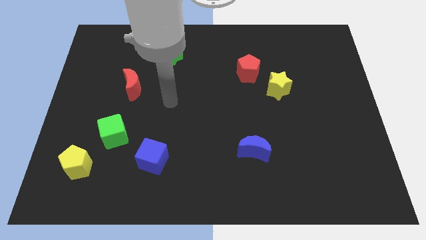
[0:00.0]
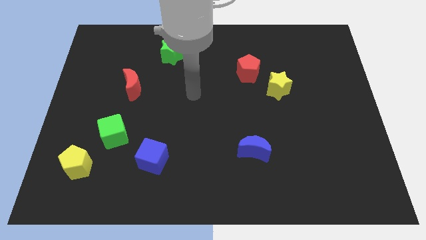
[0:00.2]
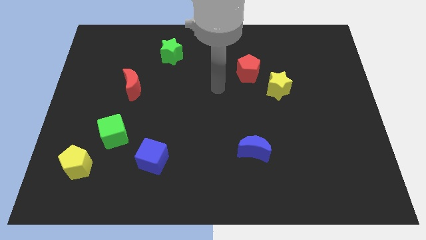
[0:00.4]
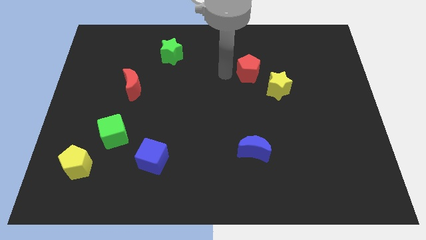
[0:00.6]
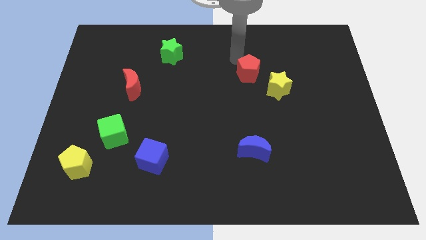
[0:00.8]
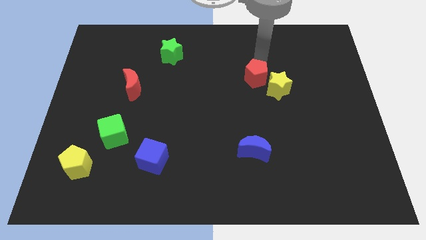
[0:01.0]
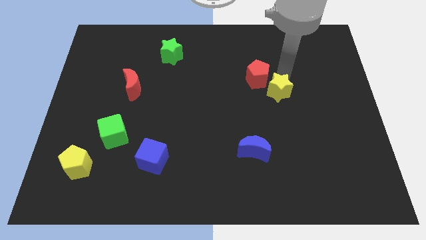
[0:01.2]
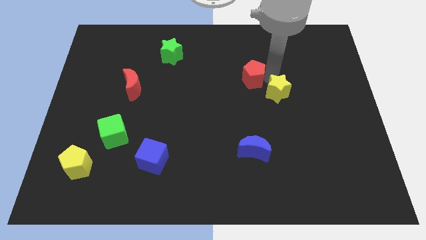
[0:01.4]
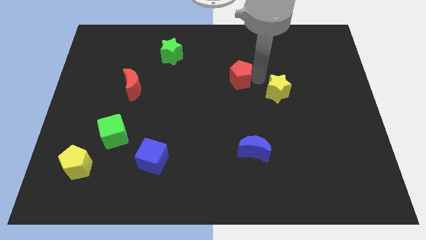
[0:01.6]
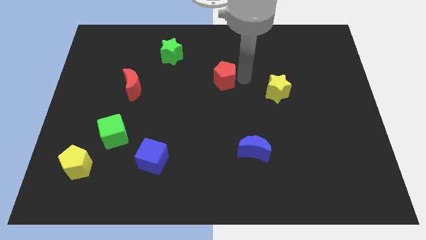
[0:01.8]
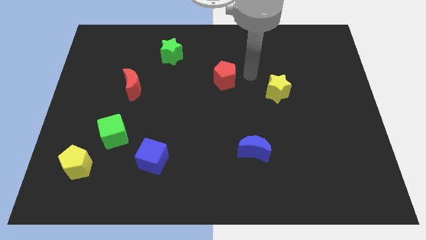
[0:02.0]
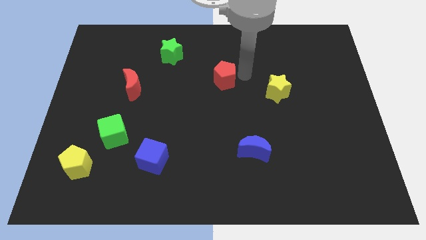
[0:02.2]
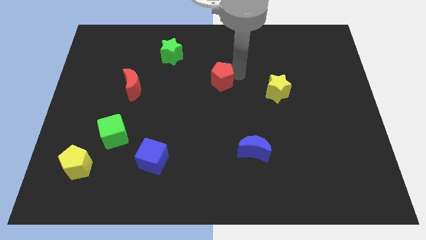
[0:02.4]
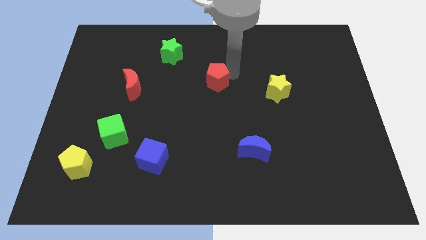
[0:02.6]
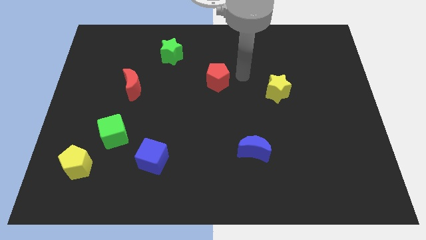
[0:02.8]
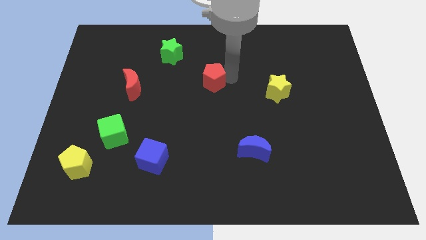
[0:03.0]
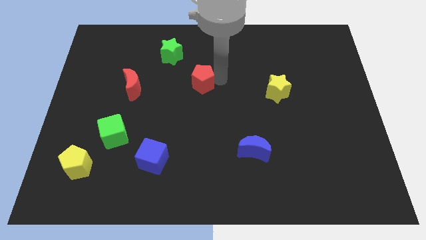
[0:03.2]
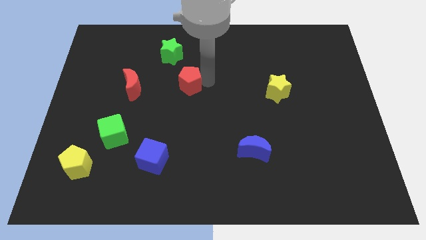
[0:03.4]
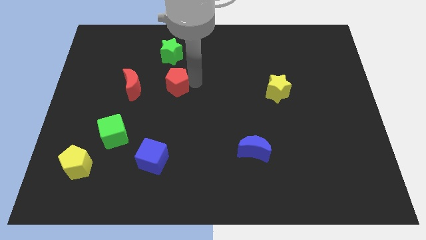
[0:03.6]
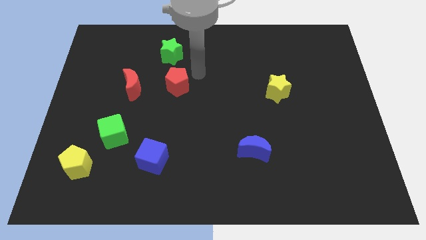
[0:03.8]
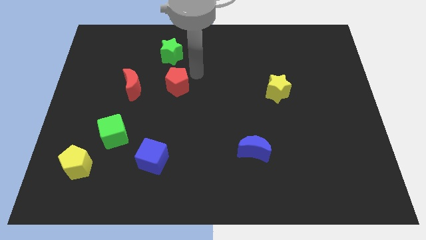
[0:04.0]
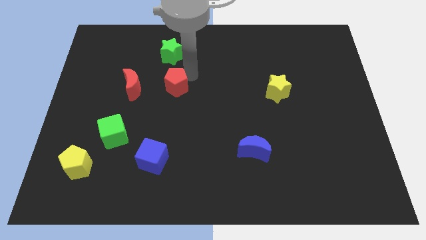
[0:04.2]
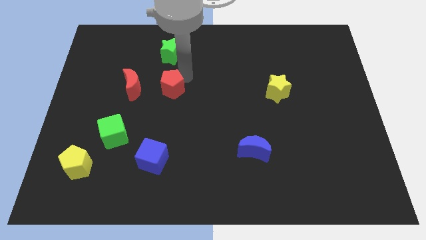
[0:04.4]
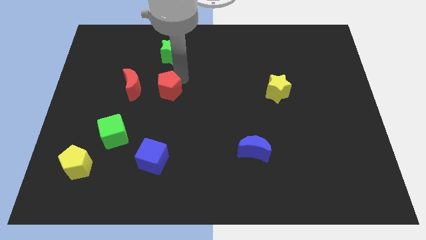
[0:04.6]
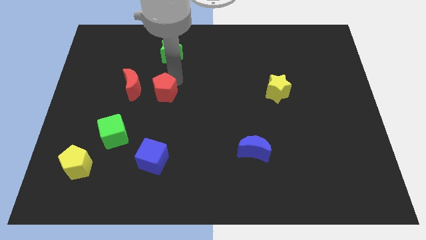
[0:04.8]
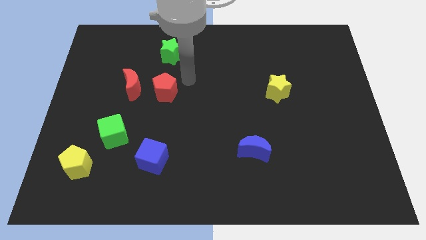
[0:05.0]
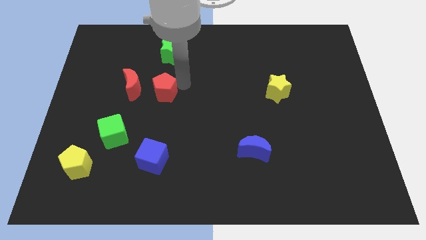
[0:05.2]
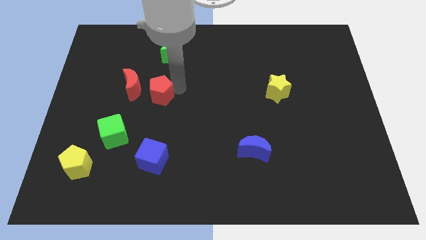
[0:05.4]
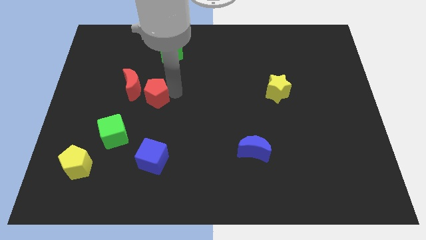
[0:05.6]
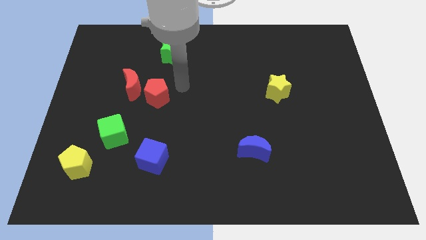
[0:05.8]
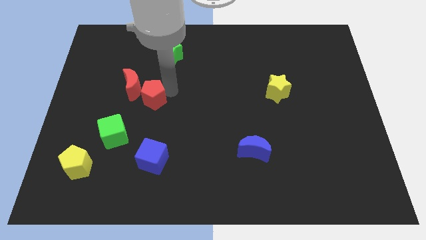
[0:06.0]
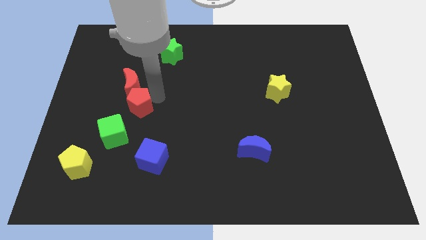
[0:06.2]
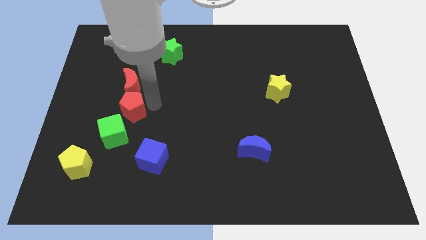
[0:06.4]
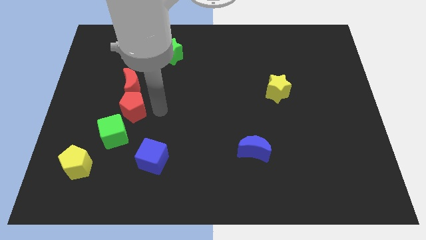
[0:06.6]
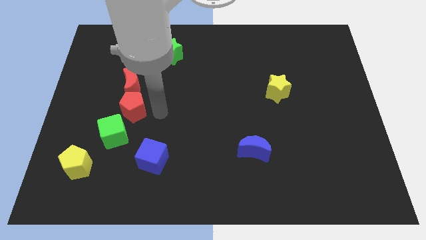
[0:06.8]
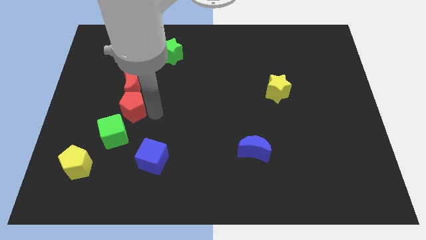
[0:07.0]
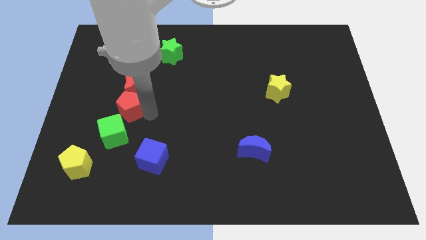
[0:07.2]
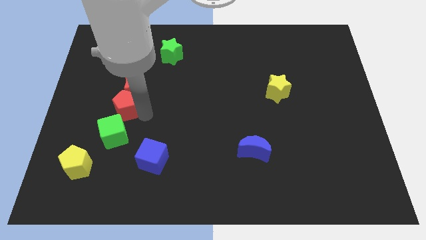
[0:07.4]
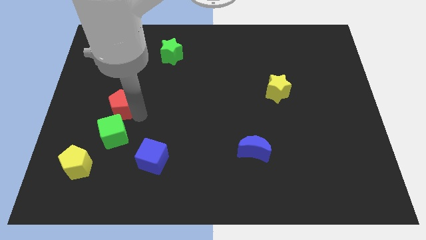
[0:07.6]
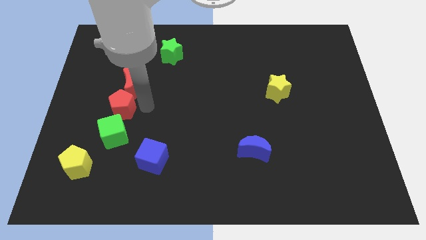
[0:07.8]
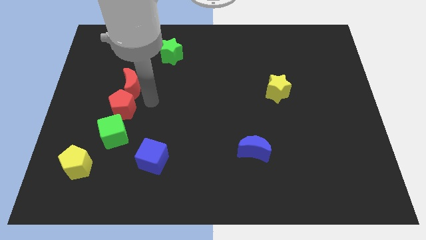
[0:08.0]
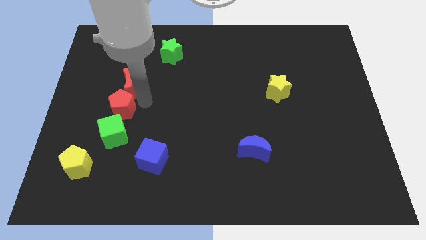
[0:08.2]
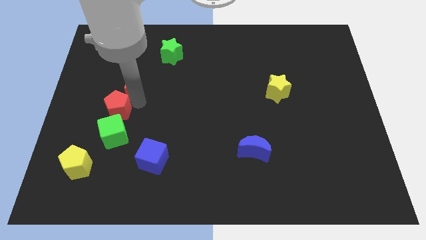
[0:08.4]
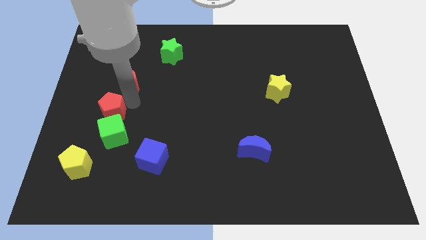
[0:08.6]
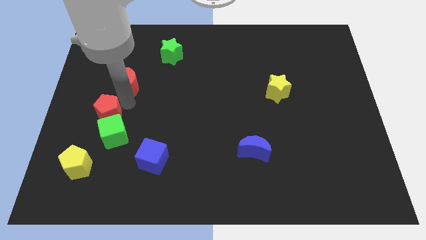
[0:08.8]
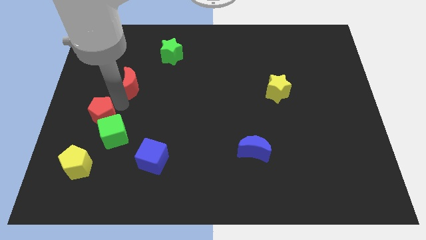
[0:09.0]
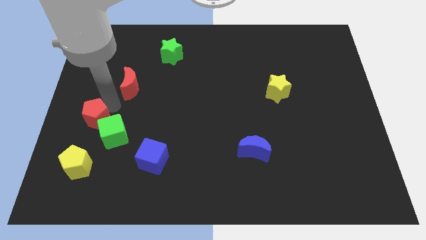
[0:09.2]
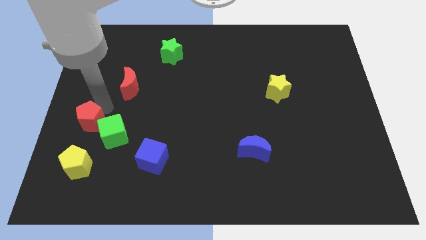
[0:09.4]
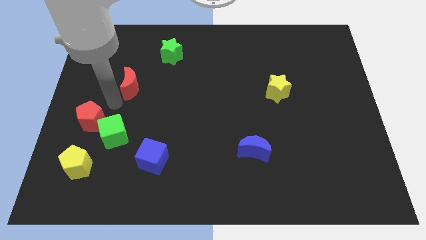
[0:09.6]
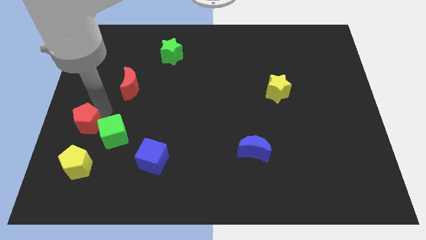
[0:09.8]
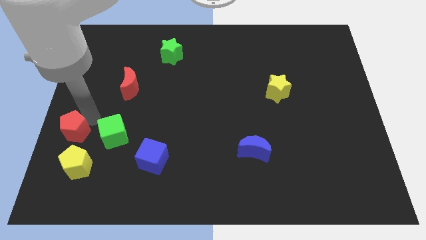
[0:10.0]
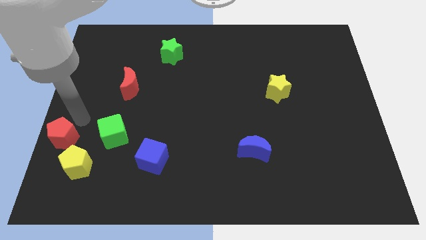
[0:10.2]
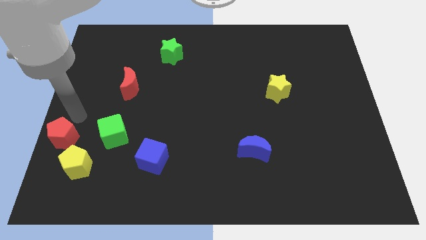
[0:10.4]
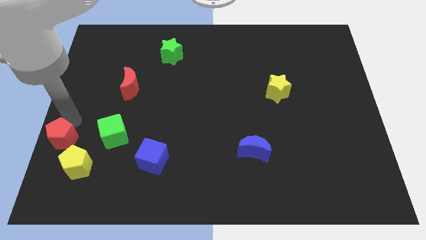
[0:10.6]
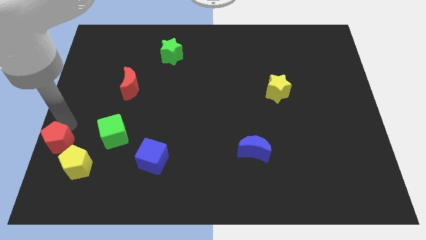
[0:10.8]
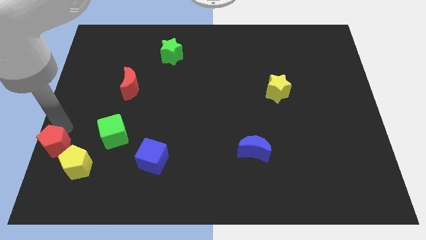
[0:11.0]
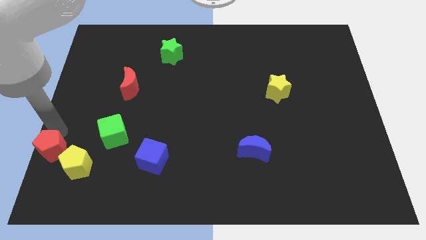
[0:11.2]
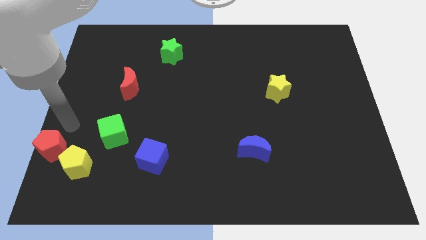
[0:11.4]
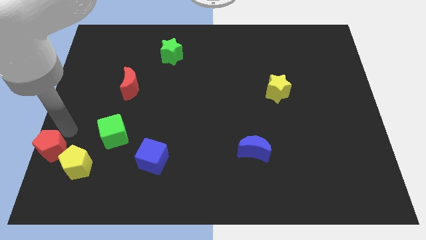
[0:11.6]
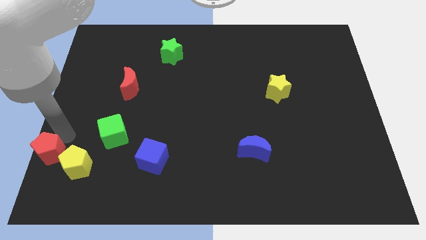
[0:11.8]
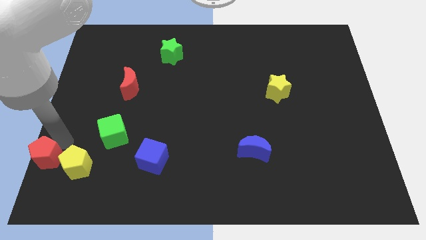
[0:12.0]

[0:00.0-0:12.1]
put the red pentagon to the lower left corner

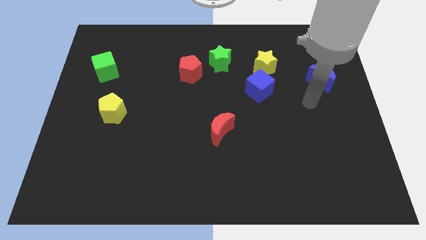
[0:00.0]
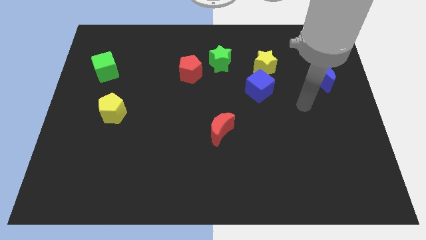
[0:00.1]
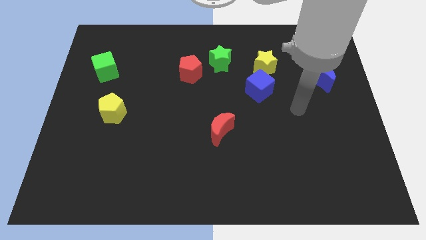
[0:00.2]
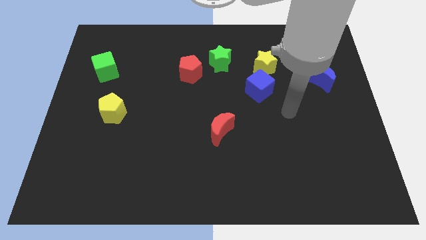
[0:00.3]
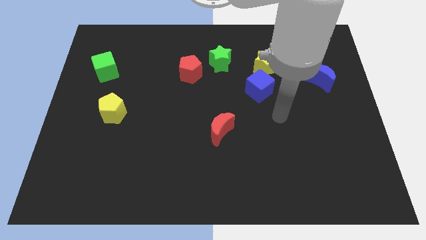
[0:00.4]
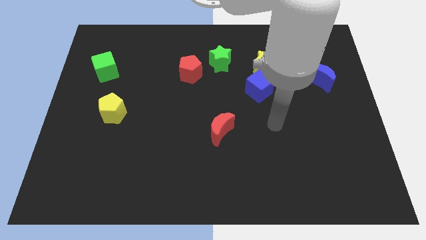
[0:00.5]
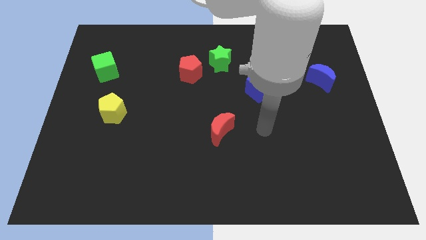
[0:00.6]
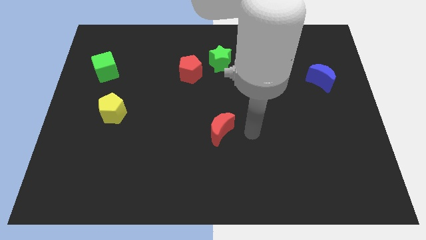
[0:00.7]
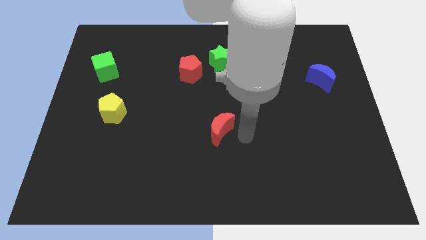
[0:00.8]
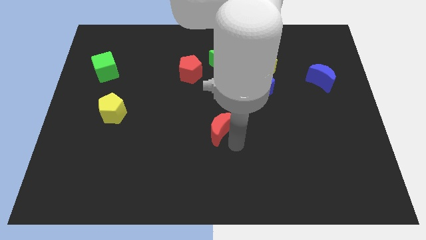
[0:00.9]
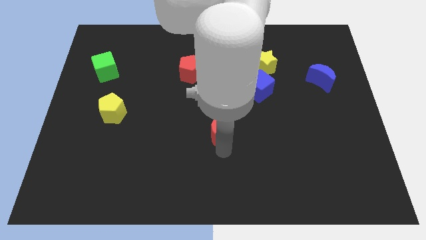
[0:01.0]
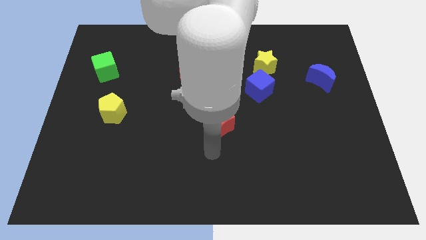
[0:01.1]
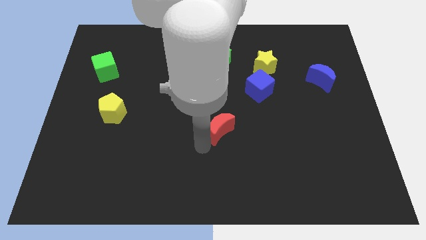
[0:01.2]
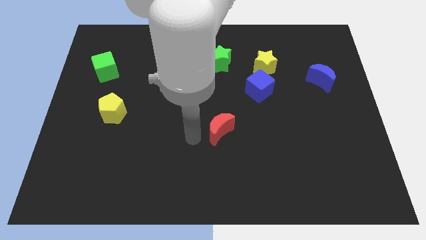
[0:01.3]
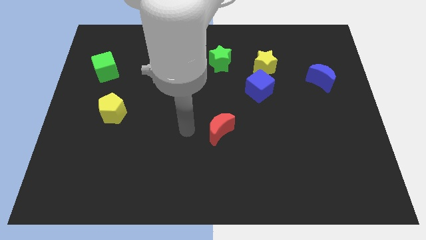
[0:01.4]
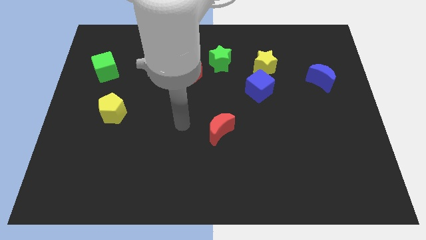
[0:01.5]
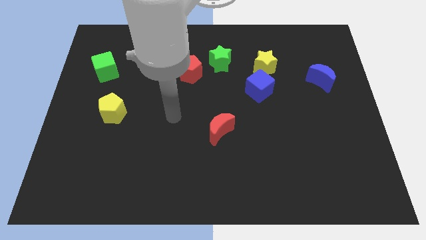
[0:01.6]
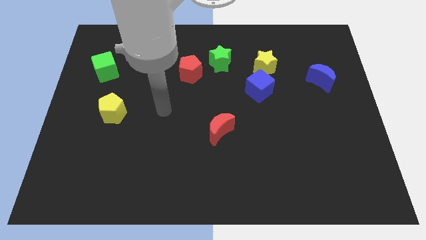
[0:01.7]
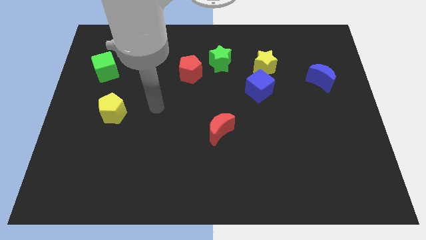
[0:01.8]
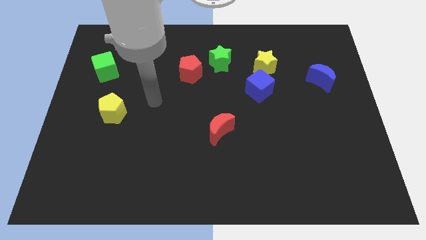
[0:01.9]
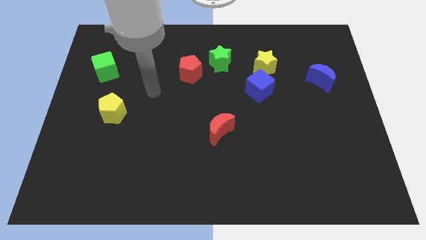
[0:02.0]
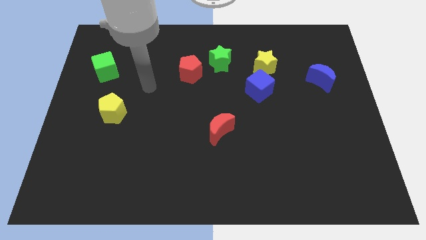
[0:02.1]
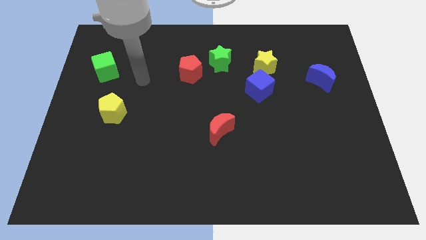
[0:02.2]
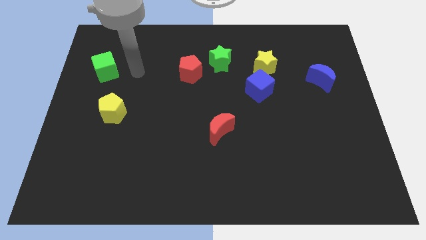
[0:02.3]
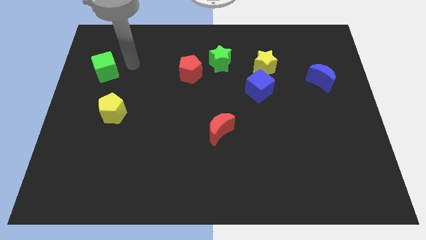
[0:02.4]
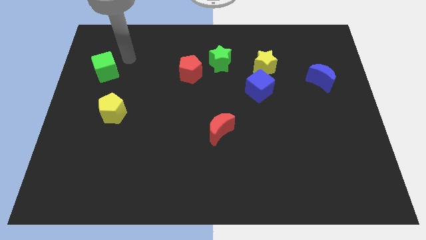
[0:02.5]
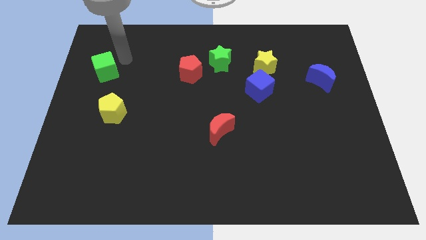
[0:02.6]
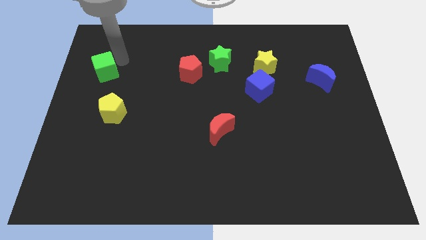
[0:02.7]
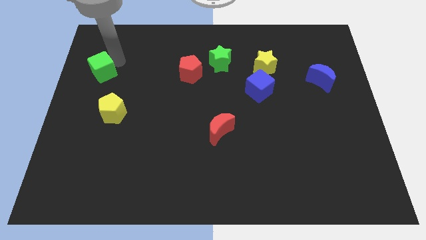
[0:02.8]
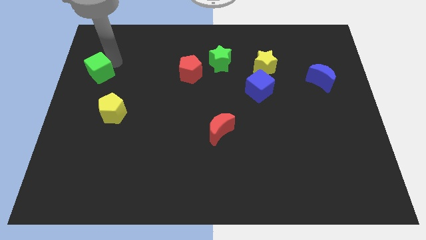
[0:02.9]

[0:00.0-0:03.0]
put the green cube to the center left
